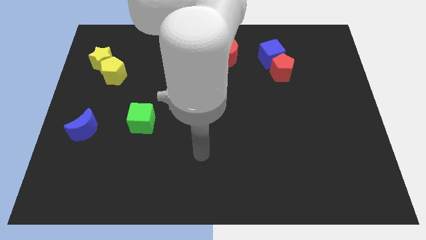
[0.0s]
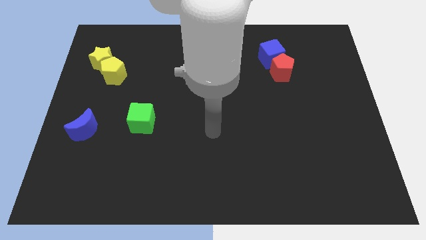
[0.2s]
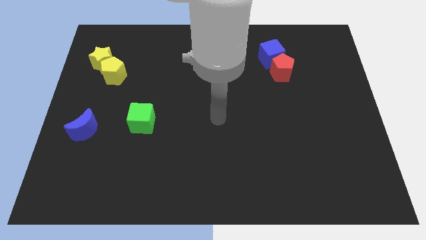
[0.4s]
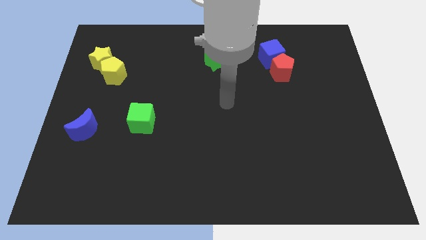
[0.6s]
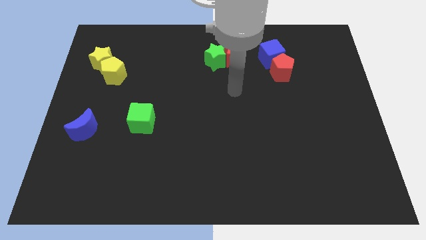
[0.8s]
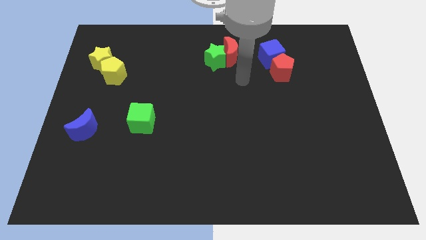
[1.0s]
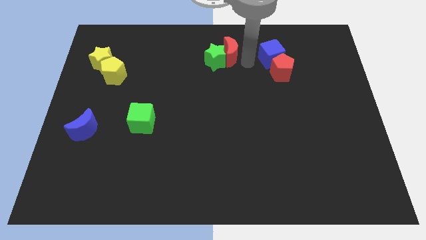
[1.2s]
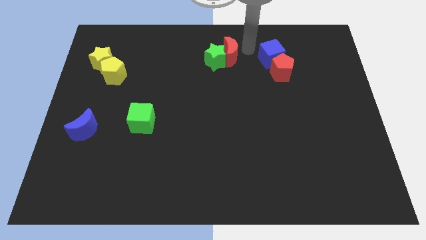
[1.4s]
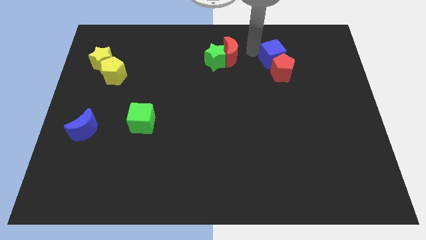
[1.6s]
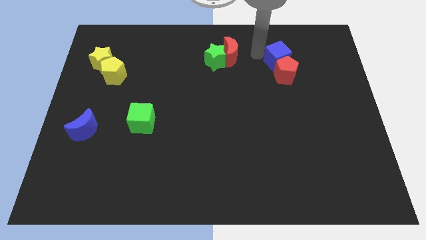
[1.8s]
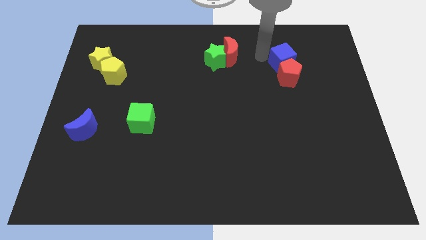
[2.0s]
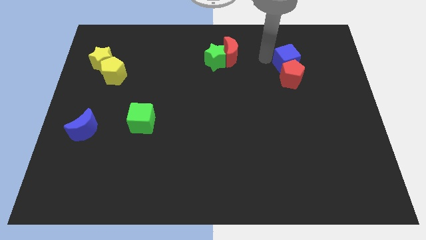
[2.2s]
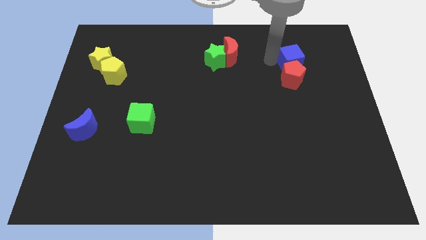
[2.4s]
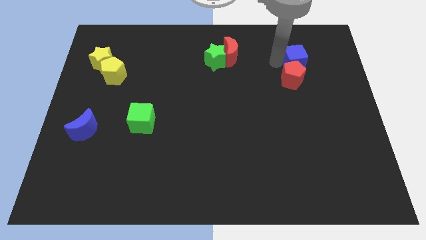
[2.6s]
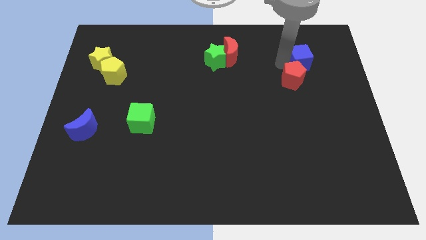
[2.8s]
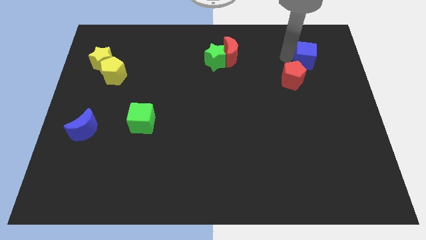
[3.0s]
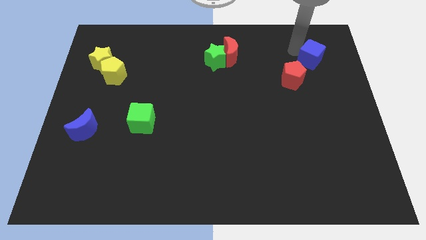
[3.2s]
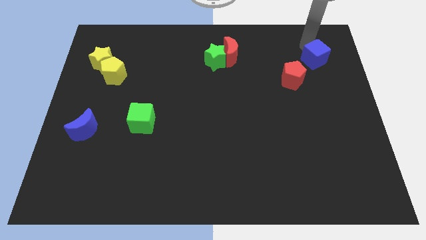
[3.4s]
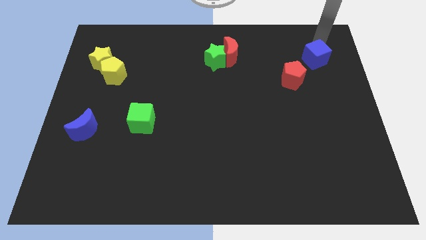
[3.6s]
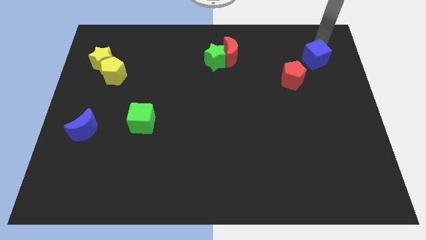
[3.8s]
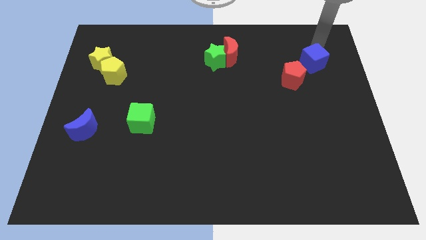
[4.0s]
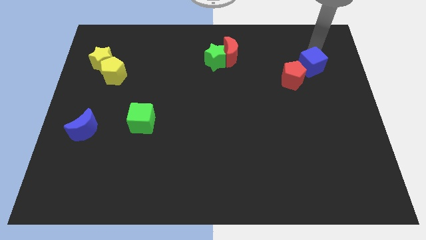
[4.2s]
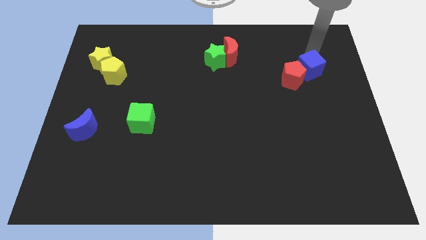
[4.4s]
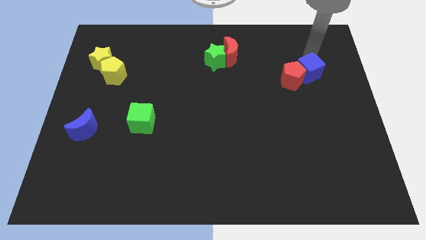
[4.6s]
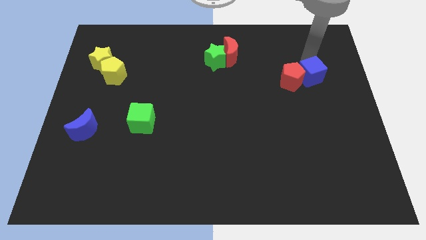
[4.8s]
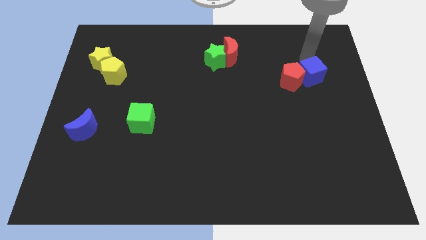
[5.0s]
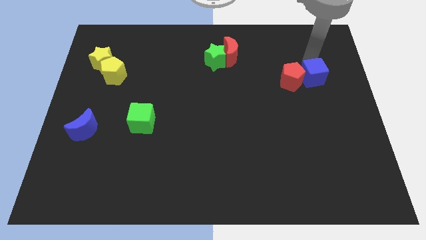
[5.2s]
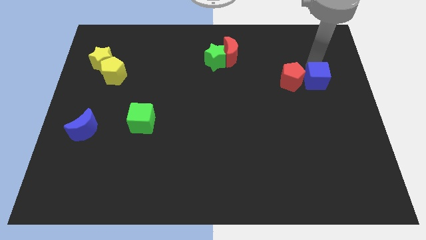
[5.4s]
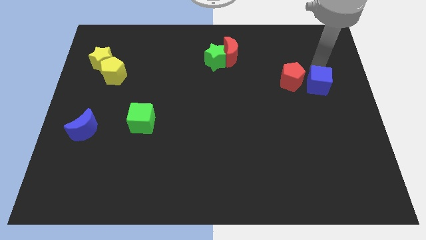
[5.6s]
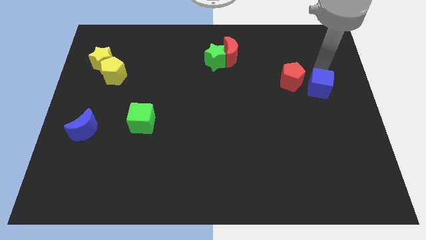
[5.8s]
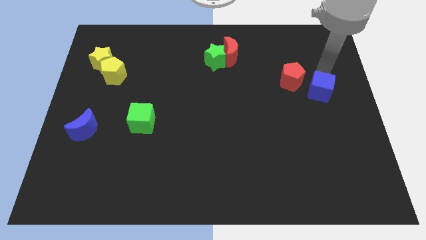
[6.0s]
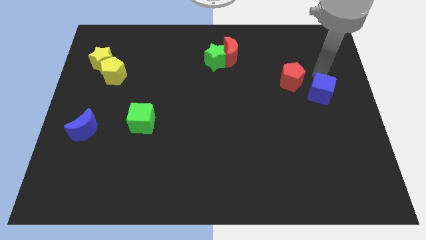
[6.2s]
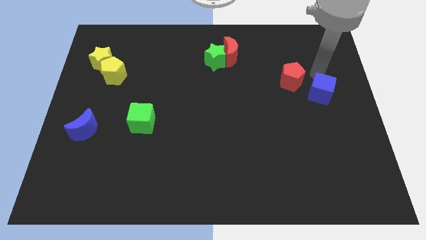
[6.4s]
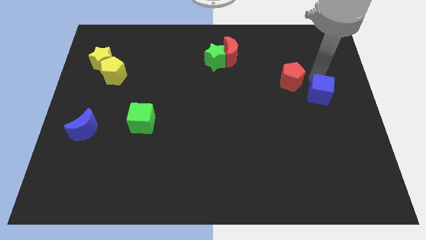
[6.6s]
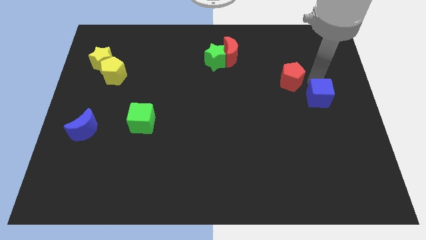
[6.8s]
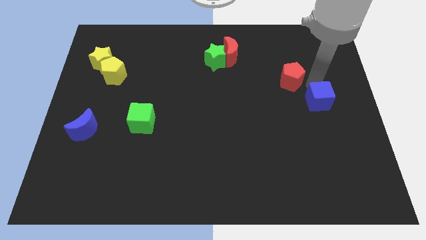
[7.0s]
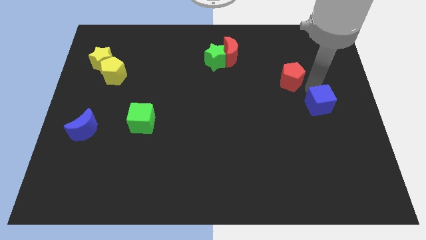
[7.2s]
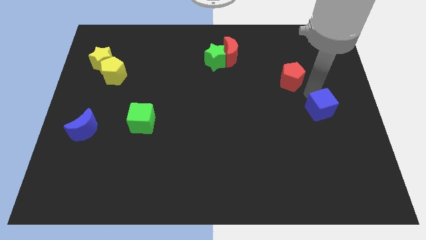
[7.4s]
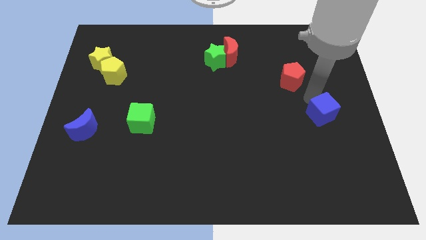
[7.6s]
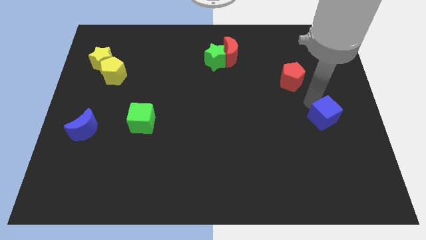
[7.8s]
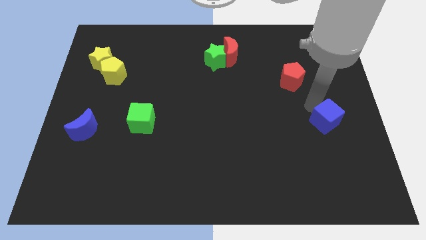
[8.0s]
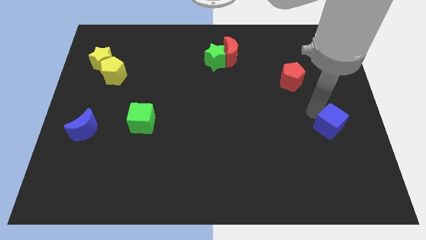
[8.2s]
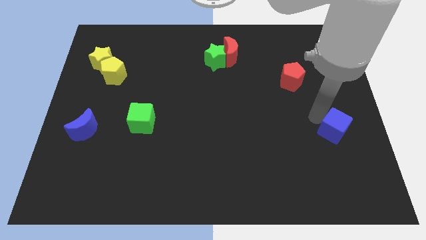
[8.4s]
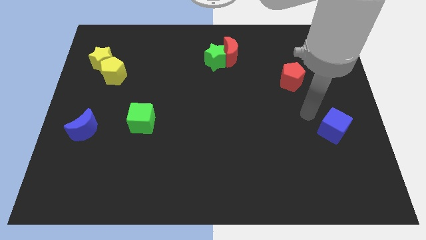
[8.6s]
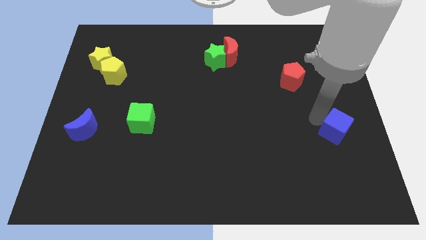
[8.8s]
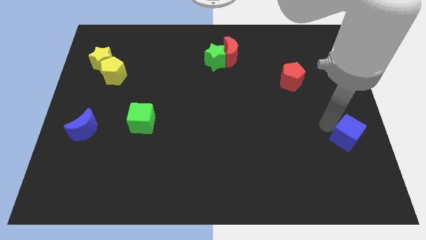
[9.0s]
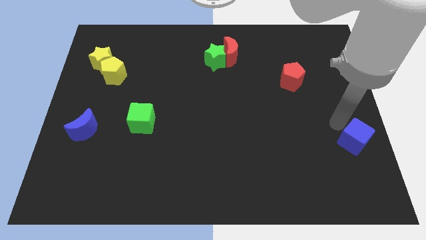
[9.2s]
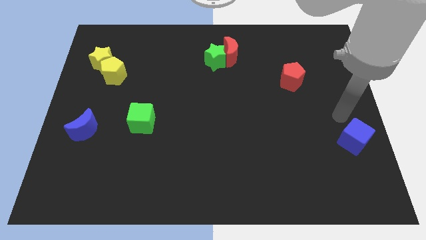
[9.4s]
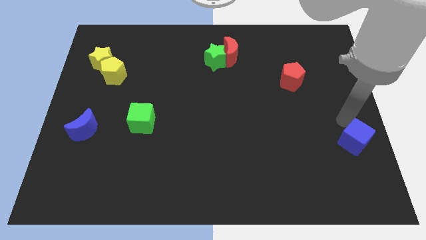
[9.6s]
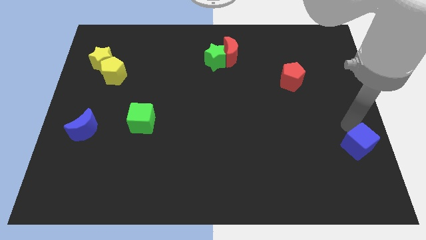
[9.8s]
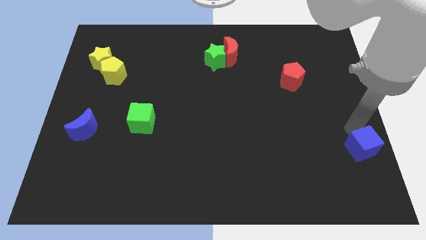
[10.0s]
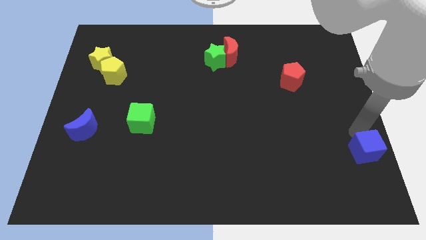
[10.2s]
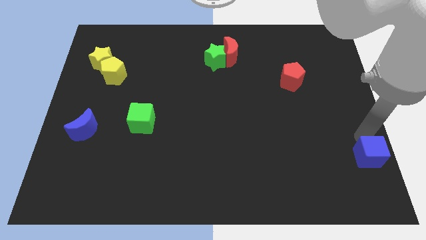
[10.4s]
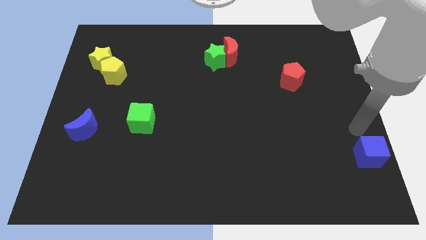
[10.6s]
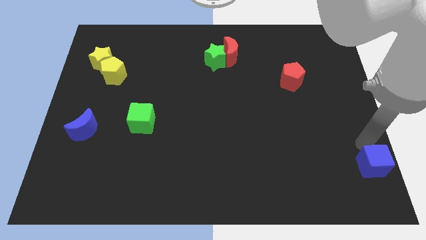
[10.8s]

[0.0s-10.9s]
put the blue cube to the bottom right

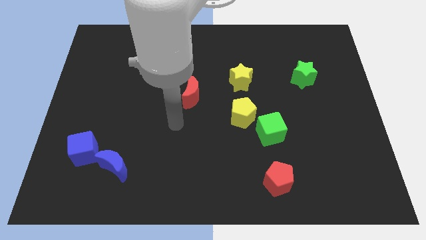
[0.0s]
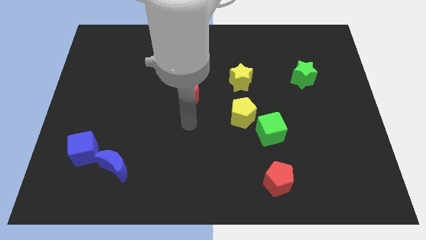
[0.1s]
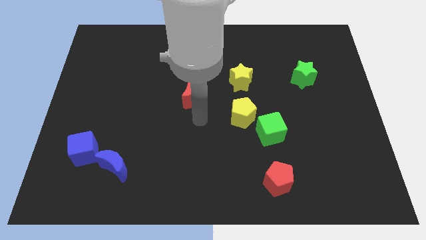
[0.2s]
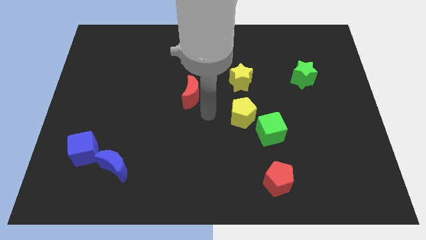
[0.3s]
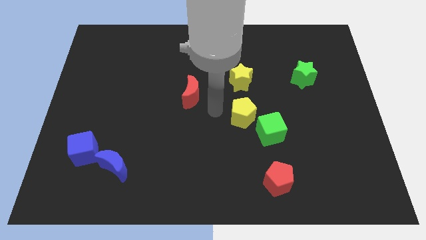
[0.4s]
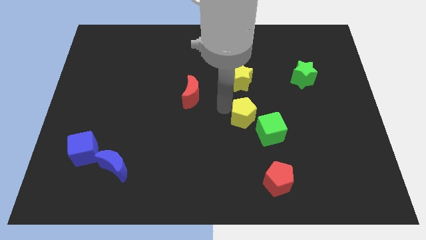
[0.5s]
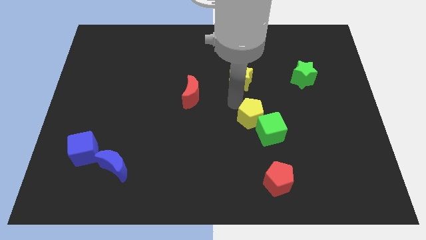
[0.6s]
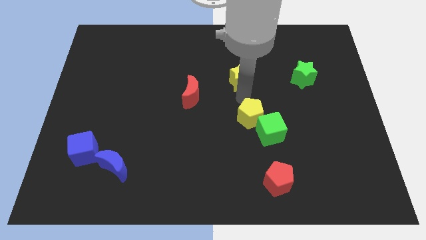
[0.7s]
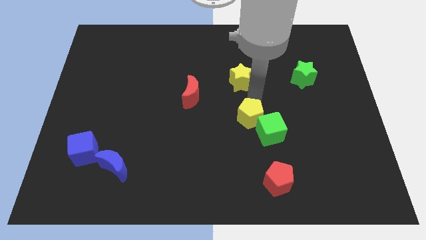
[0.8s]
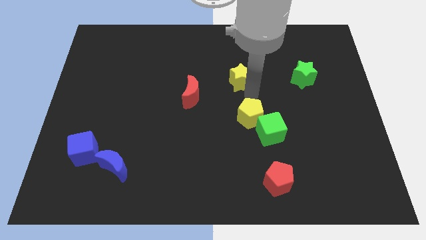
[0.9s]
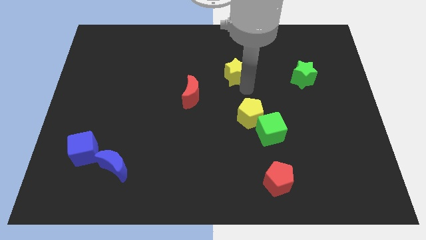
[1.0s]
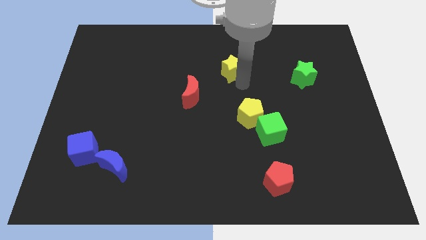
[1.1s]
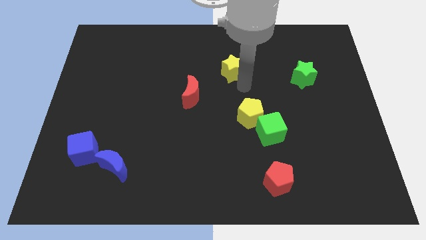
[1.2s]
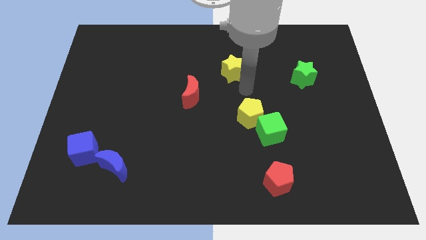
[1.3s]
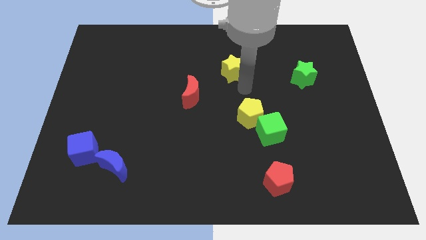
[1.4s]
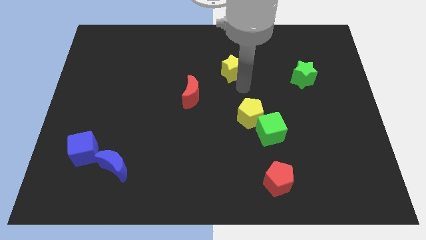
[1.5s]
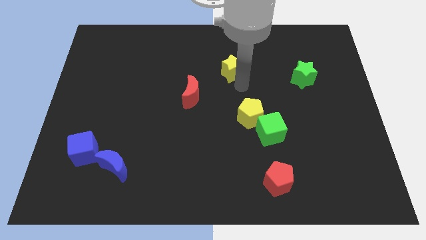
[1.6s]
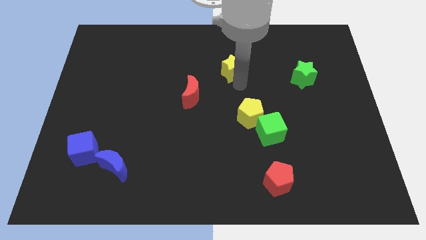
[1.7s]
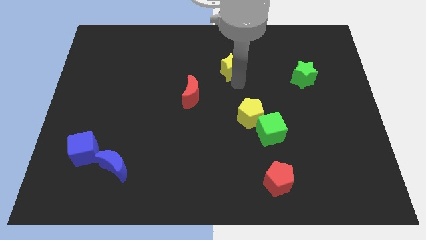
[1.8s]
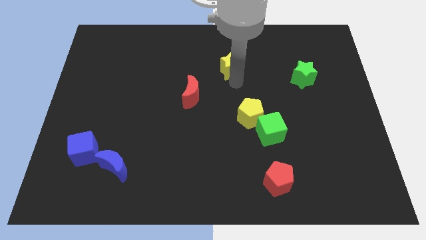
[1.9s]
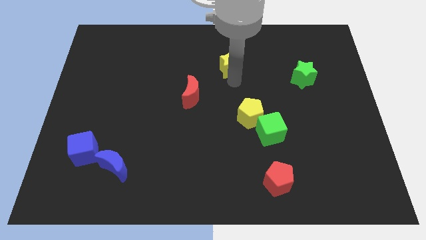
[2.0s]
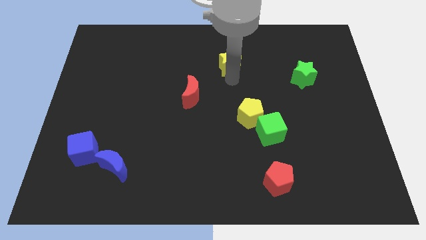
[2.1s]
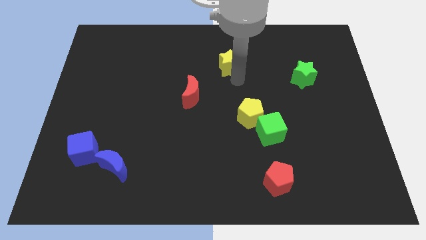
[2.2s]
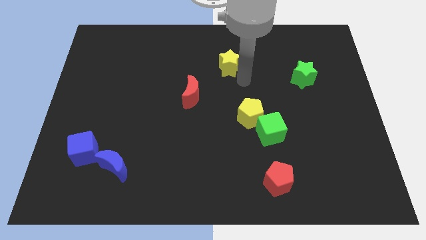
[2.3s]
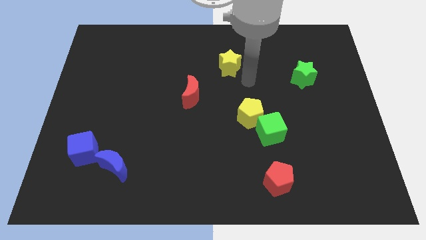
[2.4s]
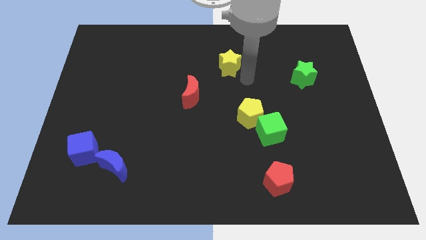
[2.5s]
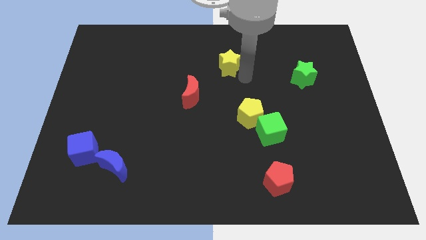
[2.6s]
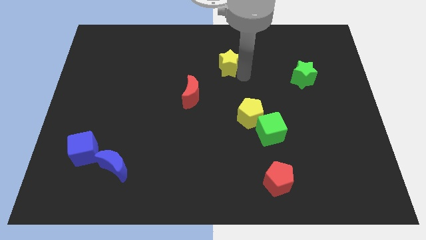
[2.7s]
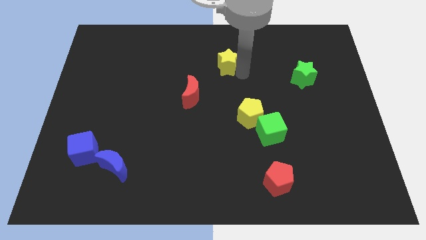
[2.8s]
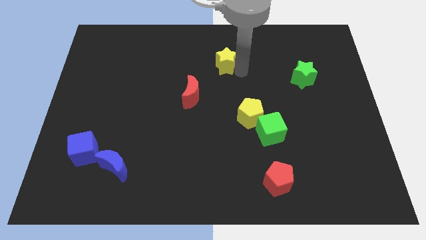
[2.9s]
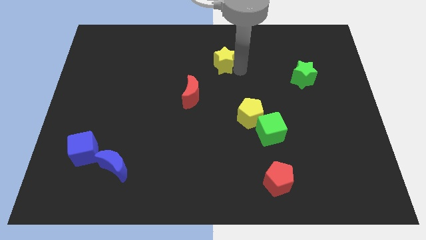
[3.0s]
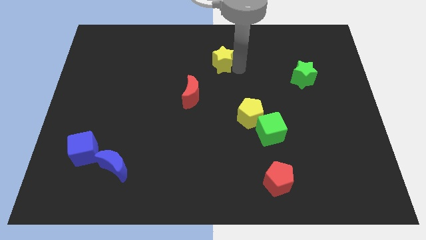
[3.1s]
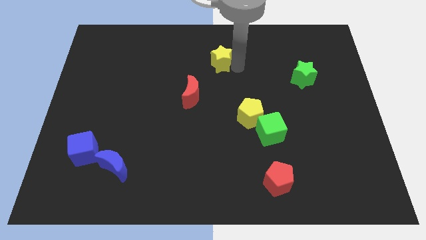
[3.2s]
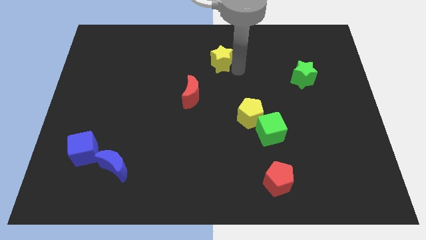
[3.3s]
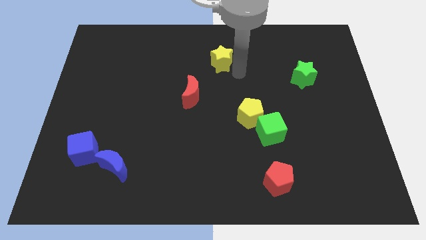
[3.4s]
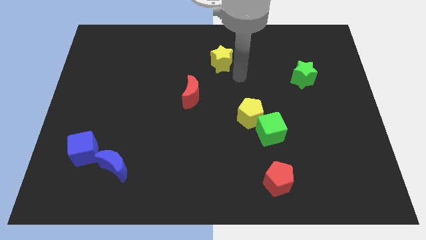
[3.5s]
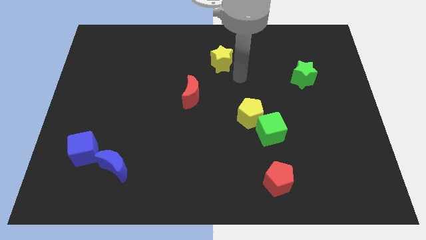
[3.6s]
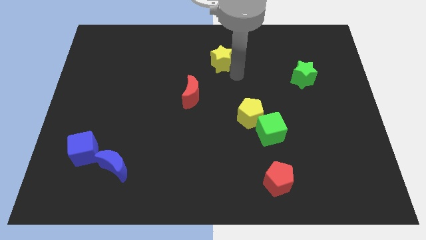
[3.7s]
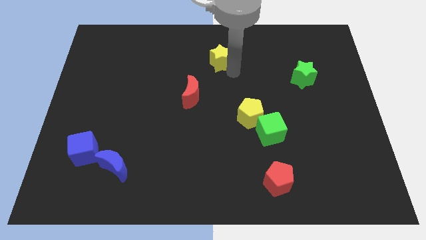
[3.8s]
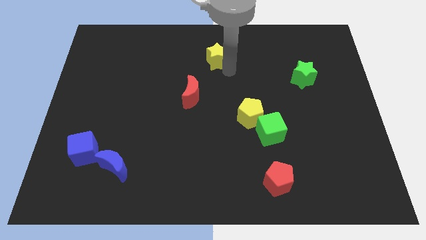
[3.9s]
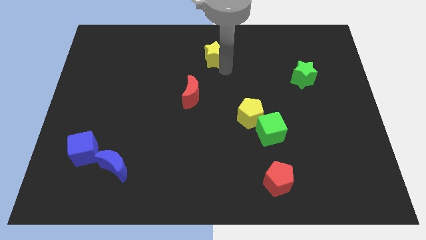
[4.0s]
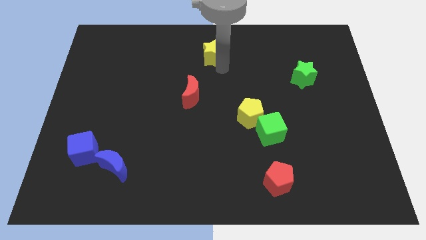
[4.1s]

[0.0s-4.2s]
push the yellow star to the top side
